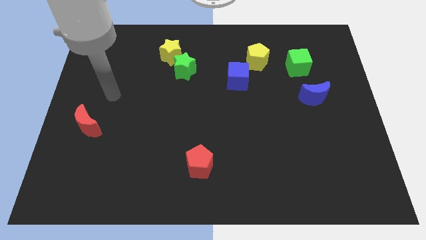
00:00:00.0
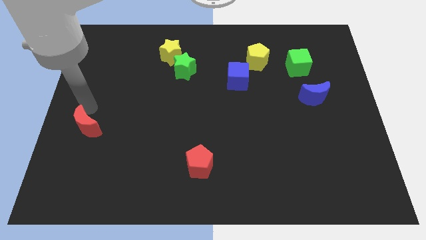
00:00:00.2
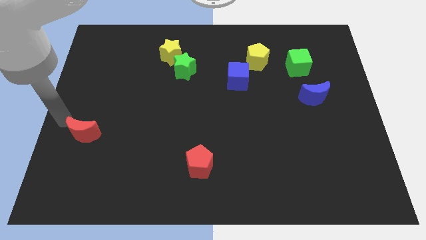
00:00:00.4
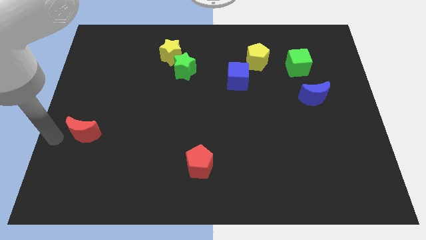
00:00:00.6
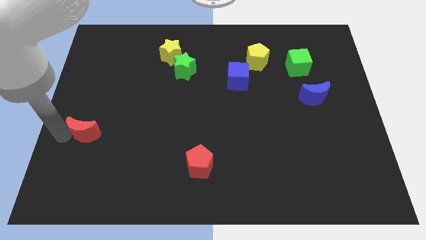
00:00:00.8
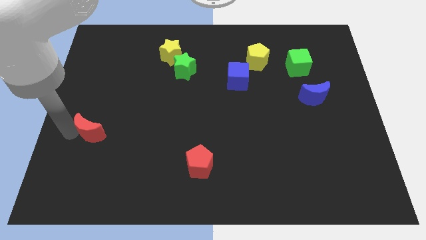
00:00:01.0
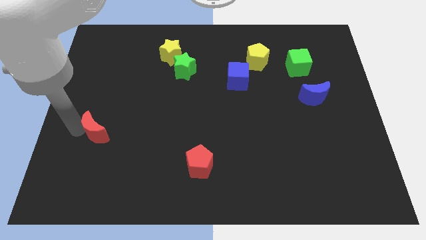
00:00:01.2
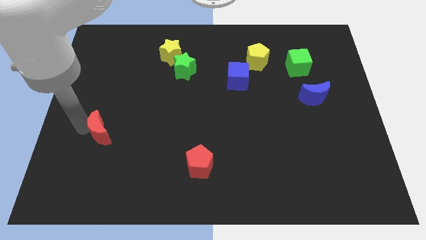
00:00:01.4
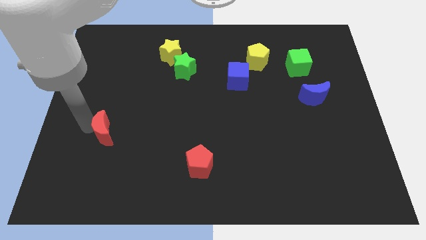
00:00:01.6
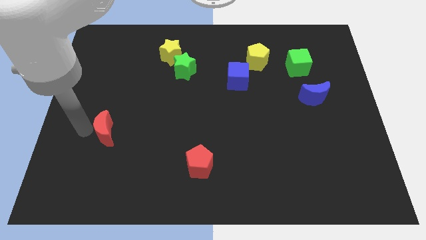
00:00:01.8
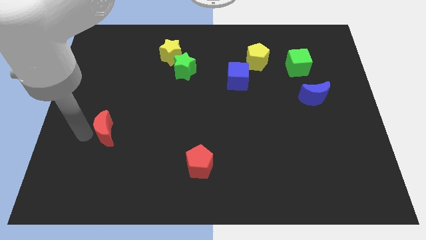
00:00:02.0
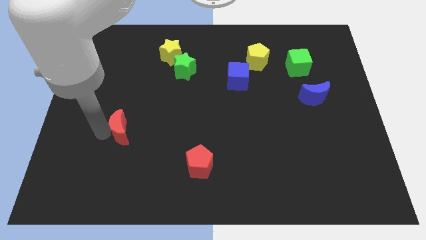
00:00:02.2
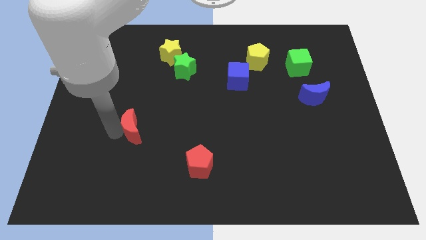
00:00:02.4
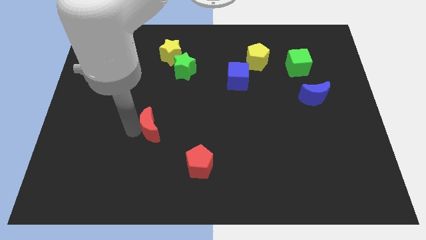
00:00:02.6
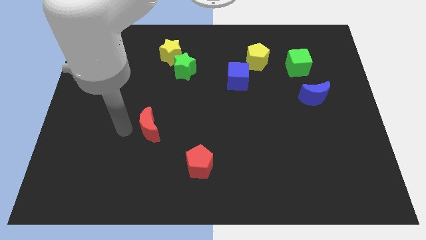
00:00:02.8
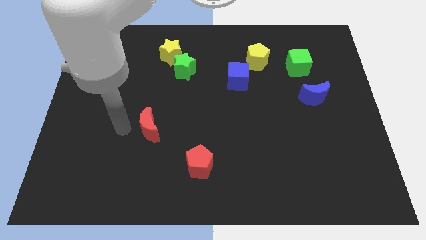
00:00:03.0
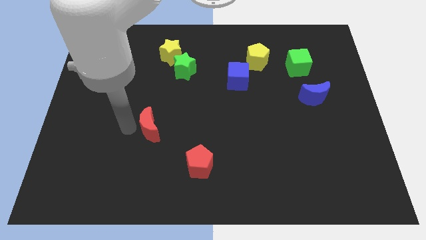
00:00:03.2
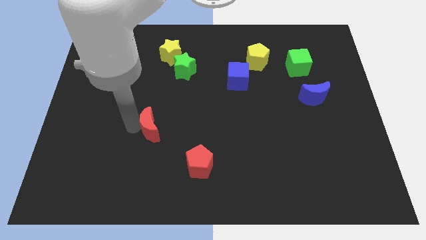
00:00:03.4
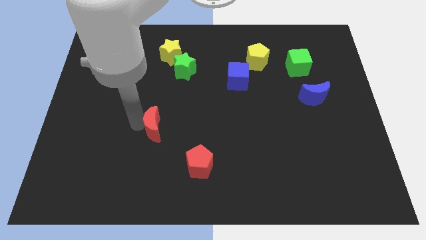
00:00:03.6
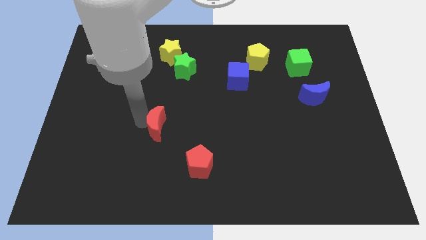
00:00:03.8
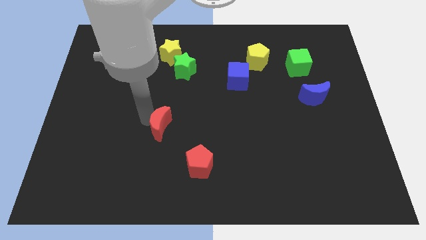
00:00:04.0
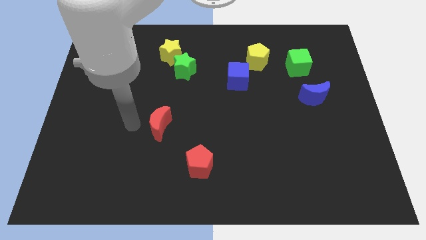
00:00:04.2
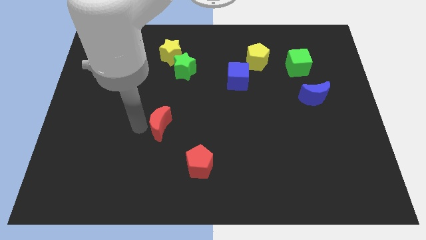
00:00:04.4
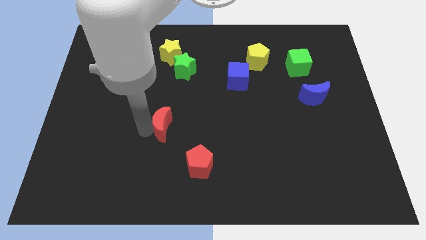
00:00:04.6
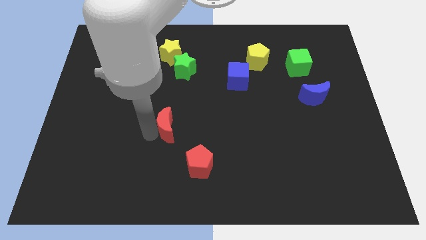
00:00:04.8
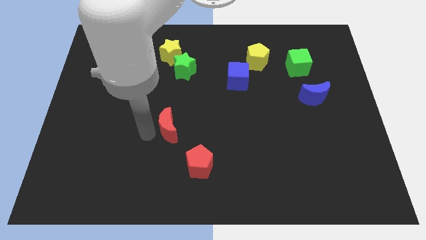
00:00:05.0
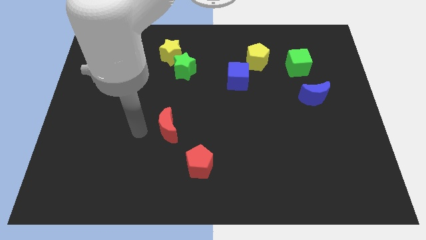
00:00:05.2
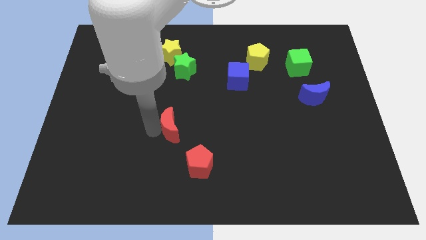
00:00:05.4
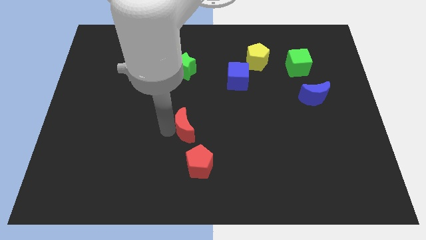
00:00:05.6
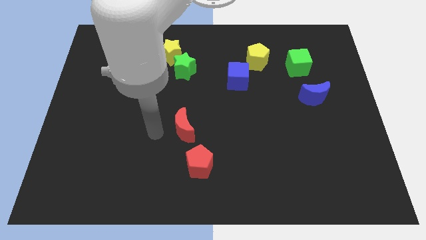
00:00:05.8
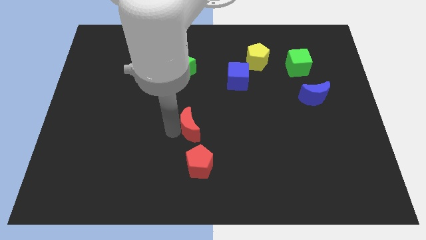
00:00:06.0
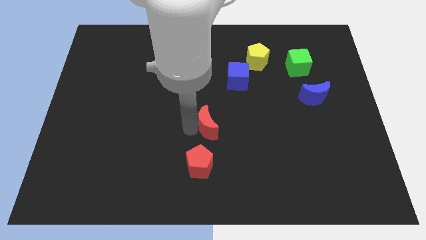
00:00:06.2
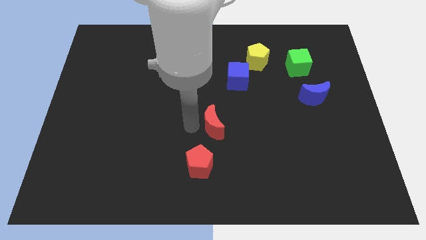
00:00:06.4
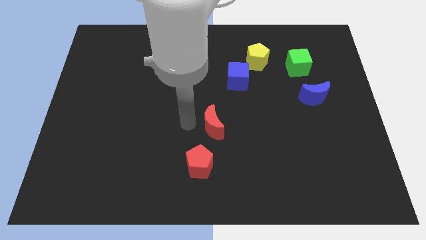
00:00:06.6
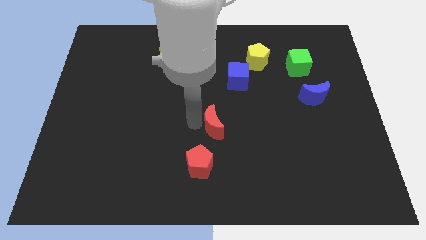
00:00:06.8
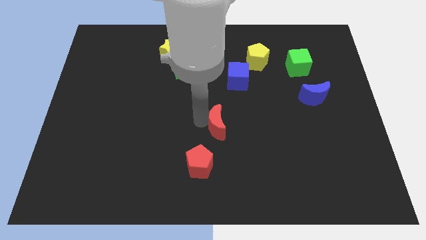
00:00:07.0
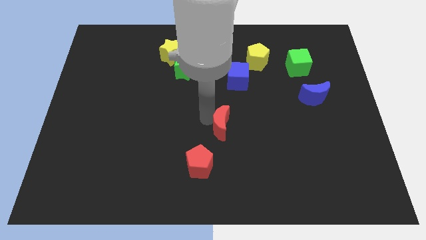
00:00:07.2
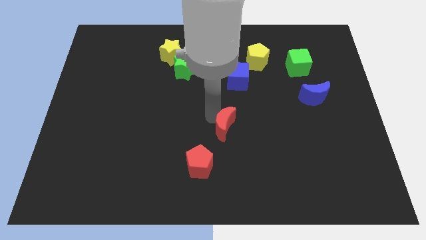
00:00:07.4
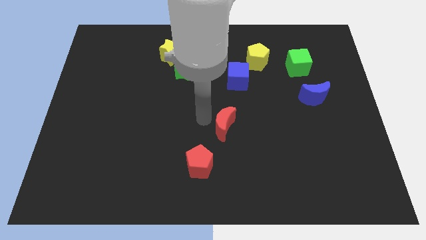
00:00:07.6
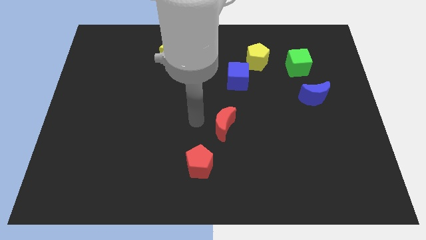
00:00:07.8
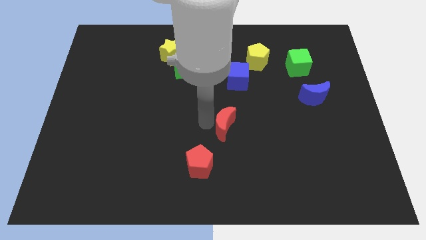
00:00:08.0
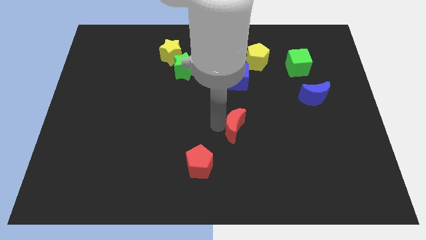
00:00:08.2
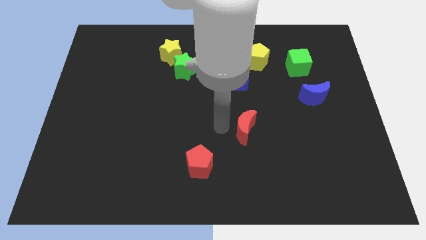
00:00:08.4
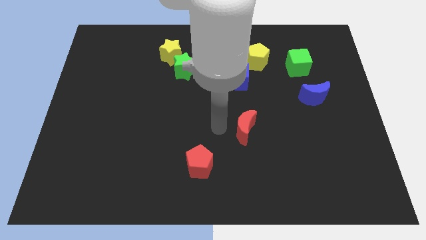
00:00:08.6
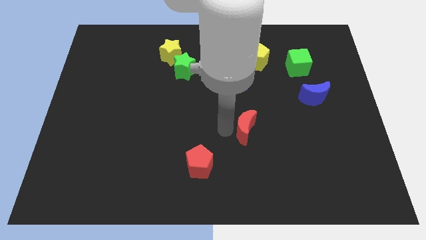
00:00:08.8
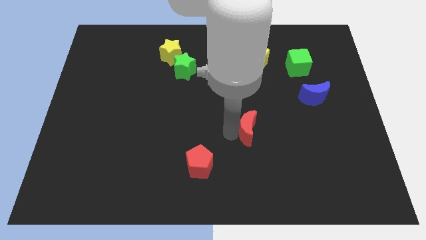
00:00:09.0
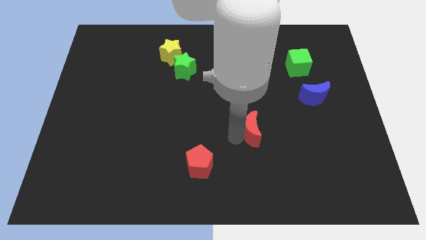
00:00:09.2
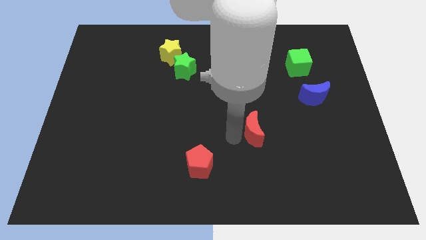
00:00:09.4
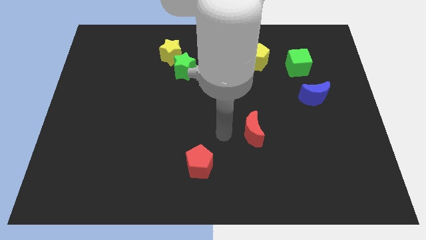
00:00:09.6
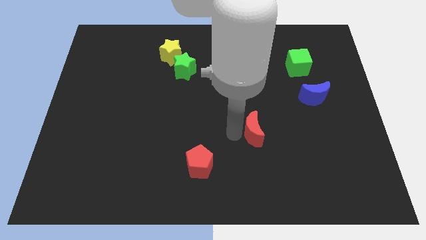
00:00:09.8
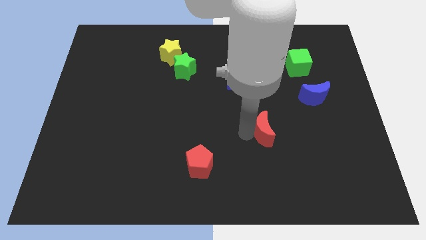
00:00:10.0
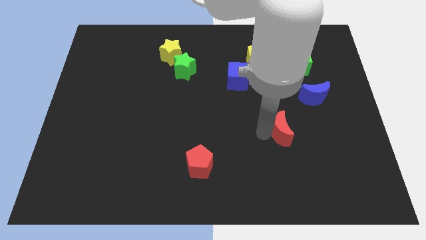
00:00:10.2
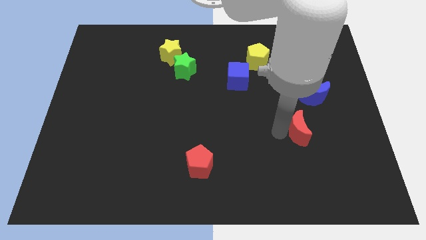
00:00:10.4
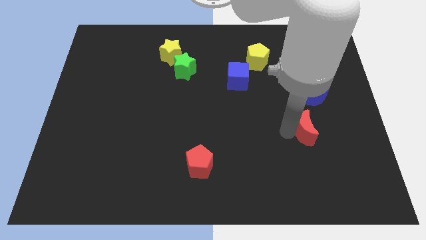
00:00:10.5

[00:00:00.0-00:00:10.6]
push the red moon to the bottom side of the blue moon

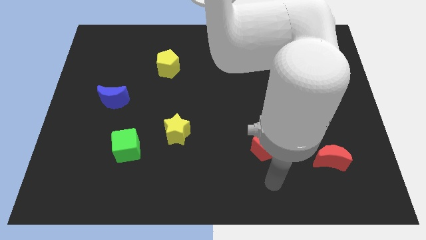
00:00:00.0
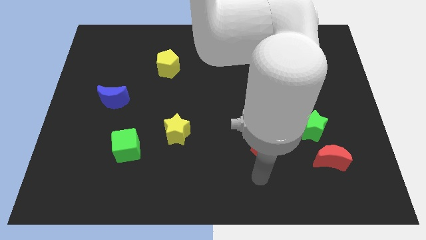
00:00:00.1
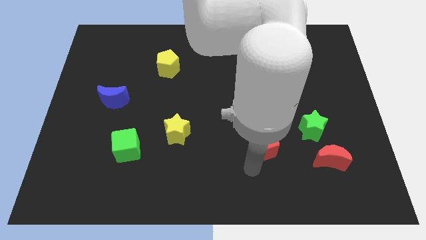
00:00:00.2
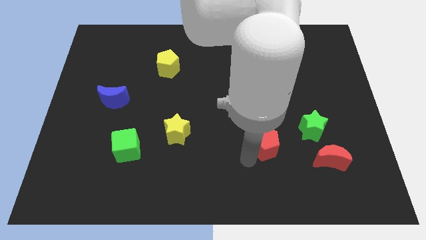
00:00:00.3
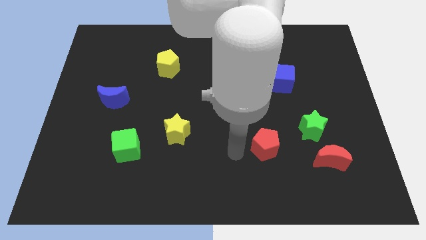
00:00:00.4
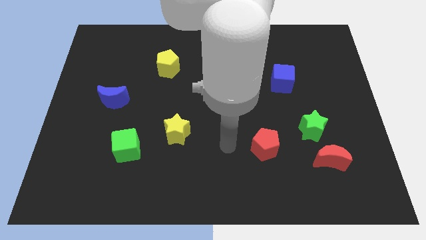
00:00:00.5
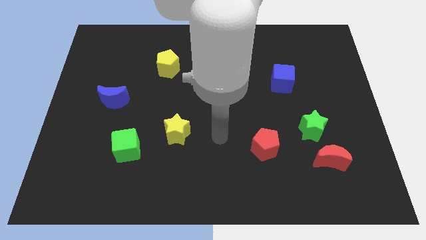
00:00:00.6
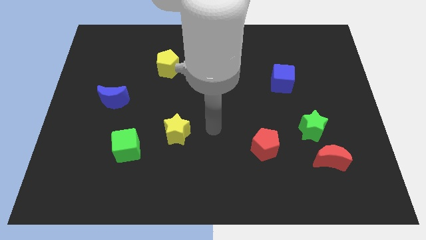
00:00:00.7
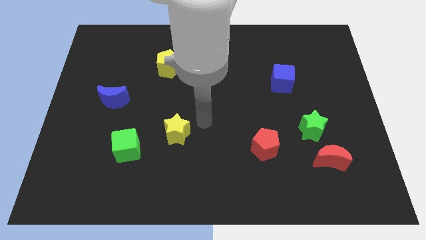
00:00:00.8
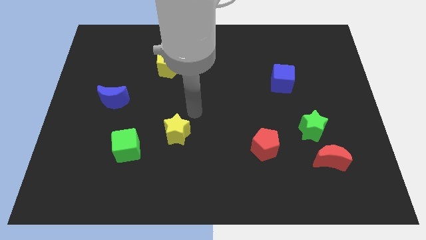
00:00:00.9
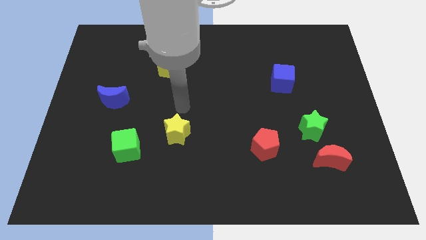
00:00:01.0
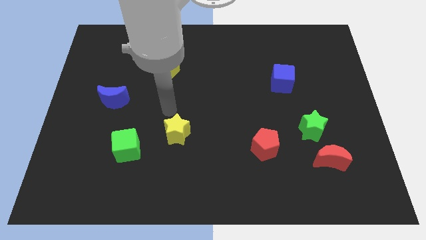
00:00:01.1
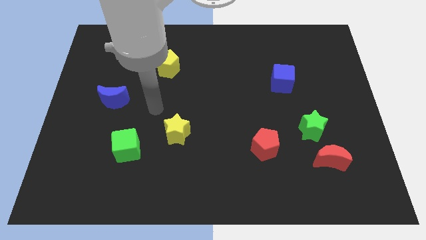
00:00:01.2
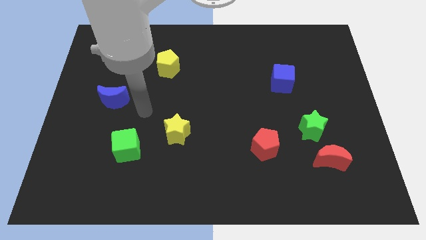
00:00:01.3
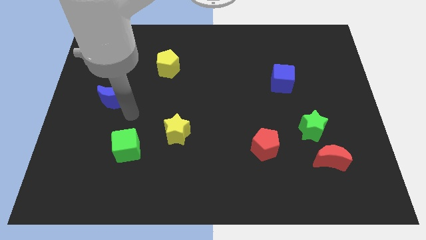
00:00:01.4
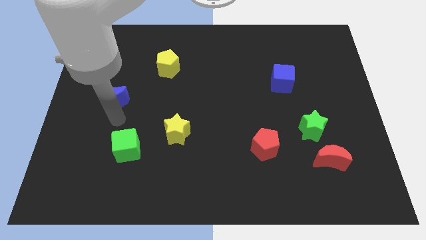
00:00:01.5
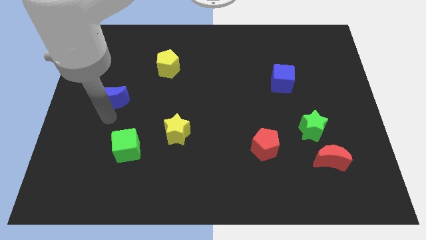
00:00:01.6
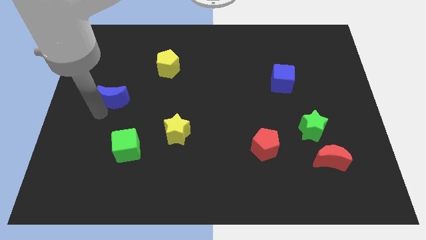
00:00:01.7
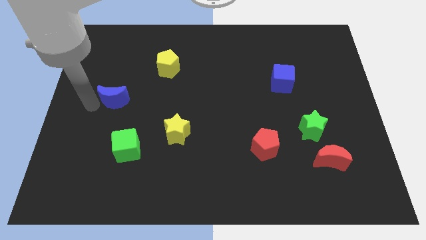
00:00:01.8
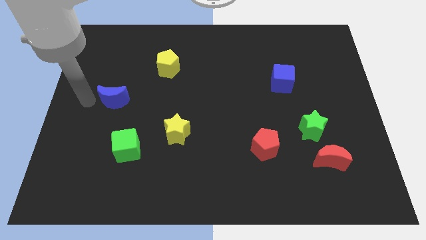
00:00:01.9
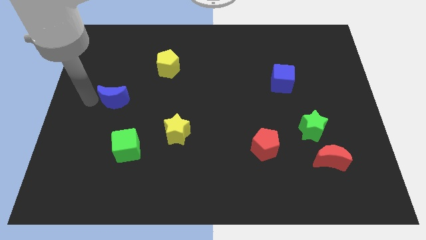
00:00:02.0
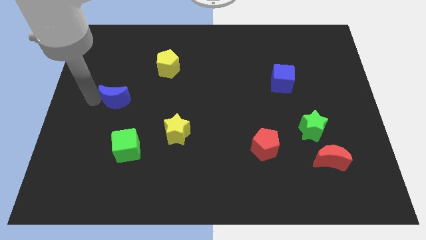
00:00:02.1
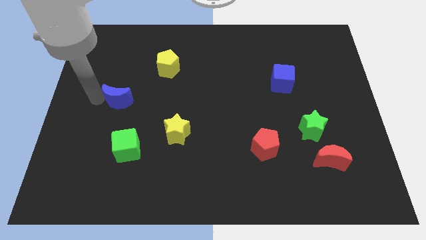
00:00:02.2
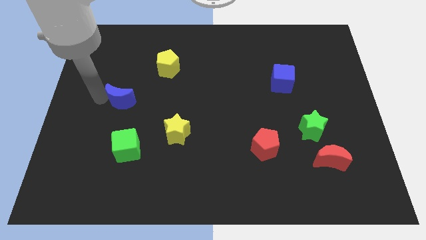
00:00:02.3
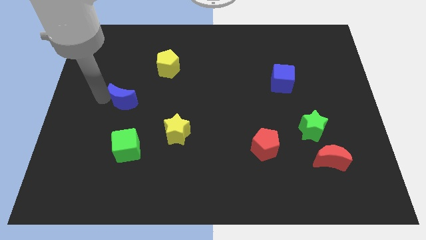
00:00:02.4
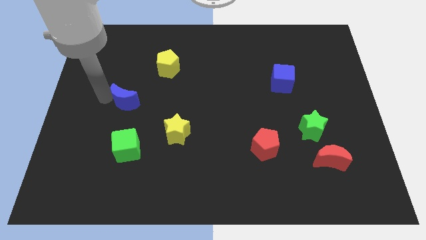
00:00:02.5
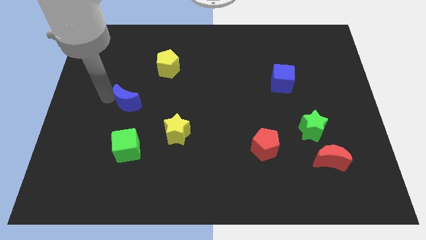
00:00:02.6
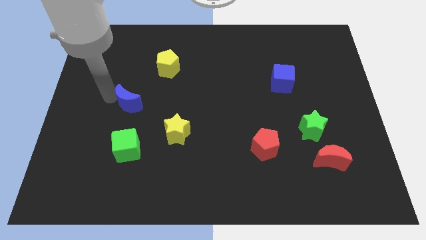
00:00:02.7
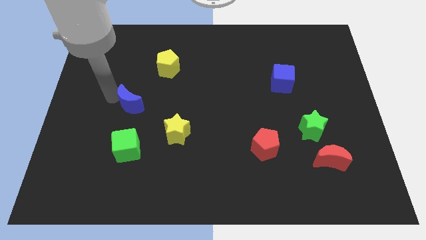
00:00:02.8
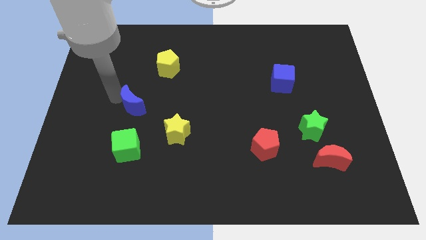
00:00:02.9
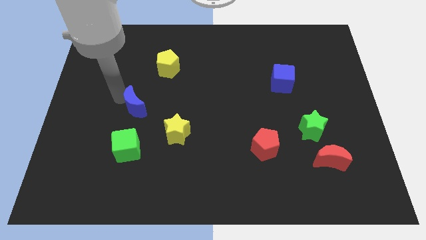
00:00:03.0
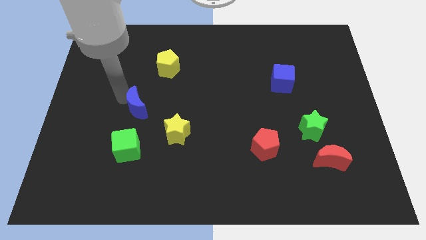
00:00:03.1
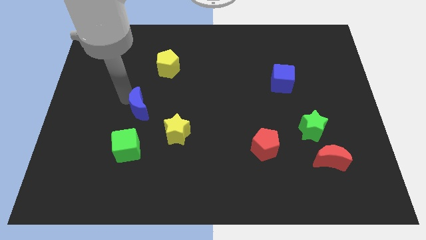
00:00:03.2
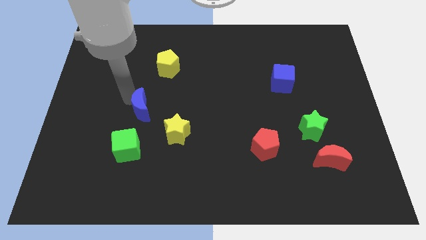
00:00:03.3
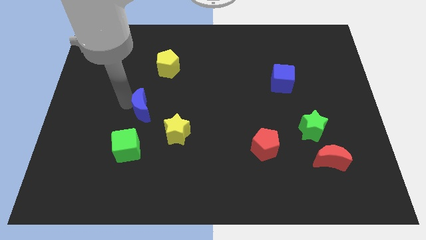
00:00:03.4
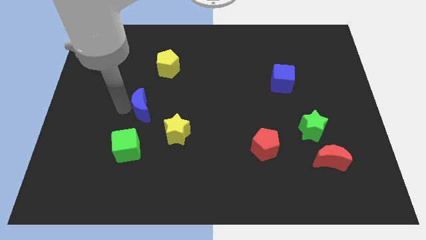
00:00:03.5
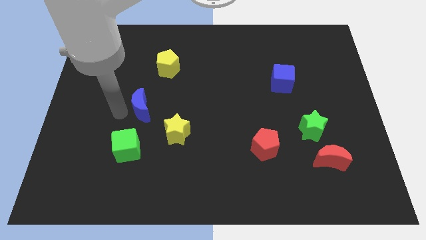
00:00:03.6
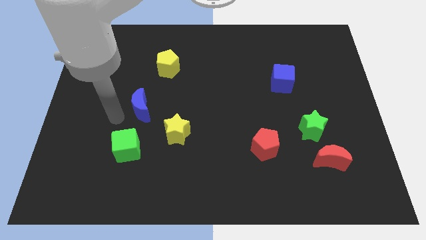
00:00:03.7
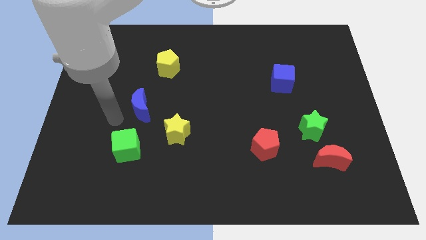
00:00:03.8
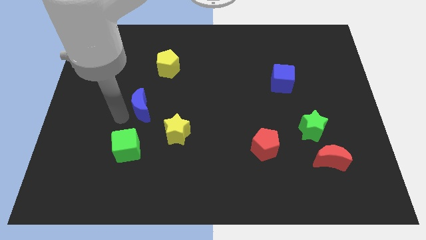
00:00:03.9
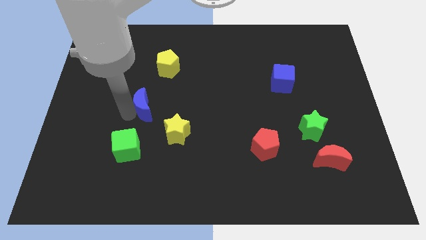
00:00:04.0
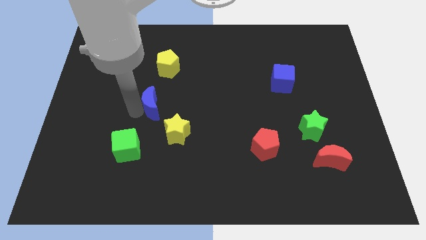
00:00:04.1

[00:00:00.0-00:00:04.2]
put the blue moon below the yellow pentagon
